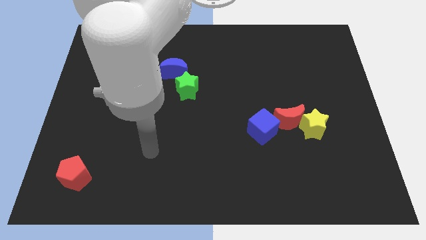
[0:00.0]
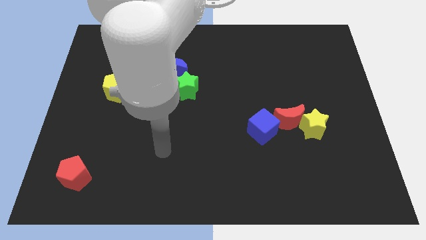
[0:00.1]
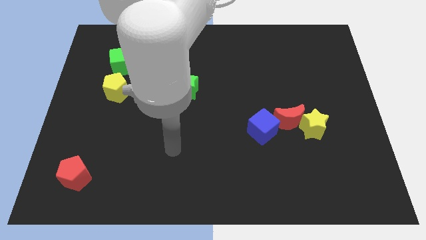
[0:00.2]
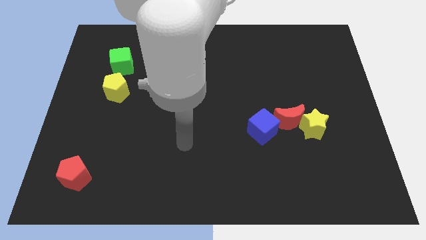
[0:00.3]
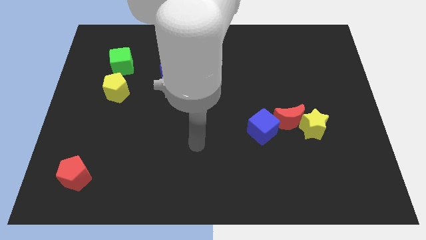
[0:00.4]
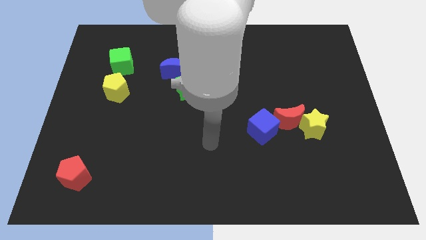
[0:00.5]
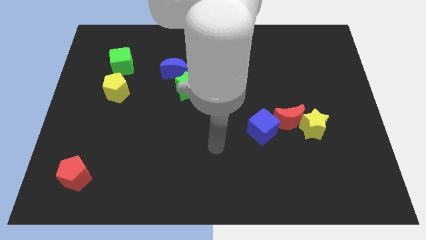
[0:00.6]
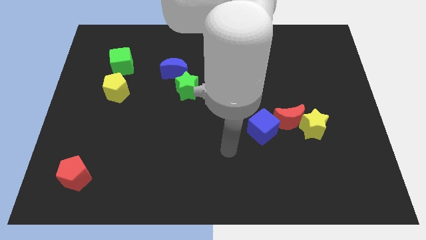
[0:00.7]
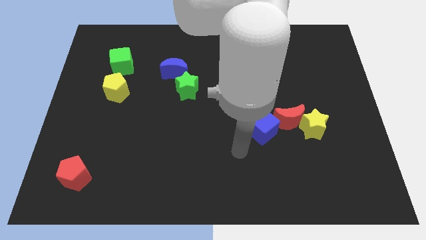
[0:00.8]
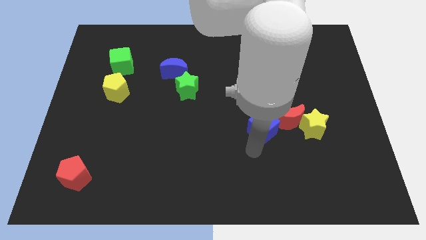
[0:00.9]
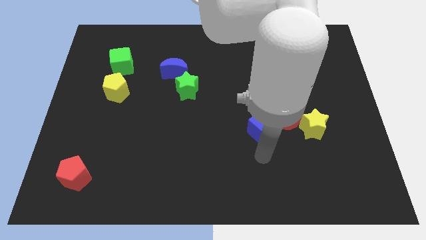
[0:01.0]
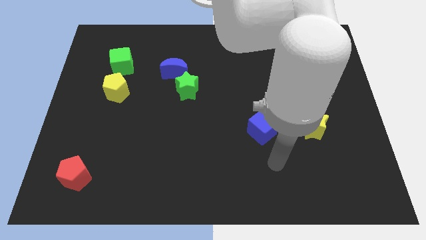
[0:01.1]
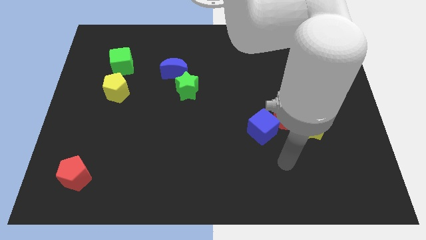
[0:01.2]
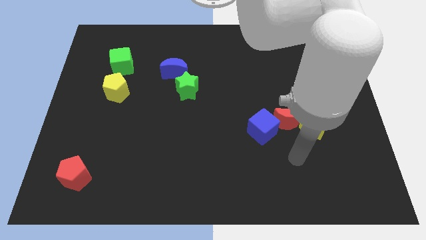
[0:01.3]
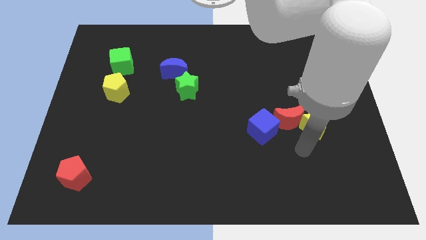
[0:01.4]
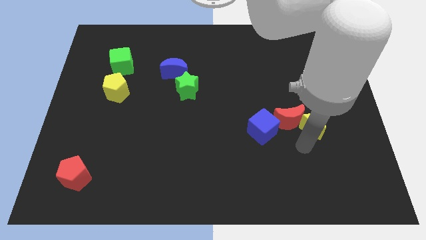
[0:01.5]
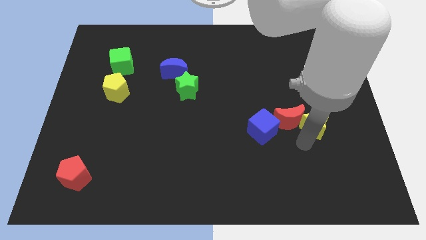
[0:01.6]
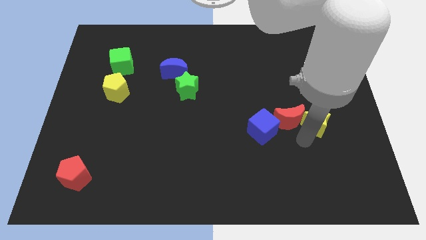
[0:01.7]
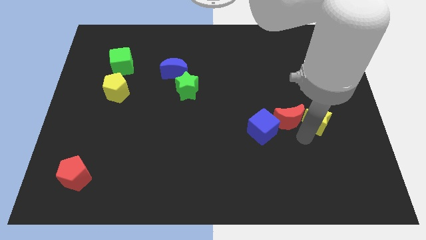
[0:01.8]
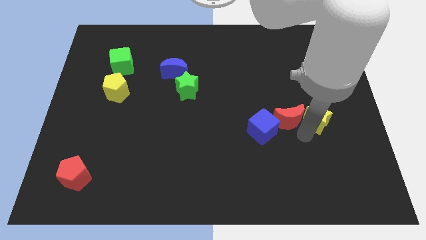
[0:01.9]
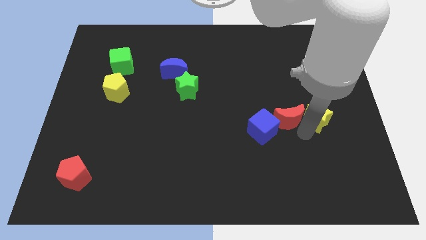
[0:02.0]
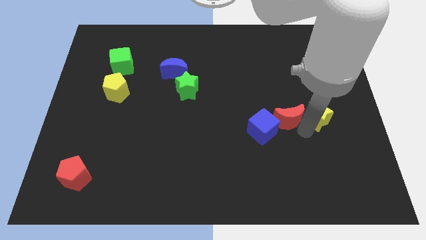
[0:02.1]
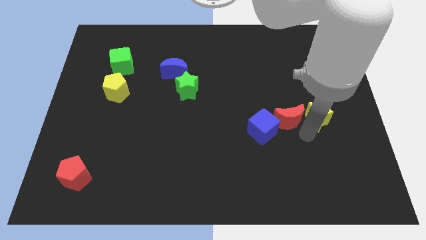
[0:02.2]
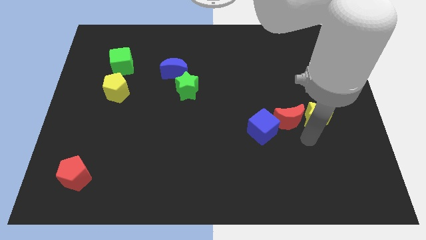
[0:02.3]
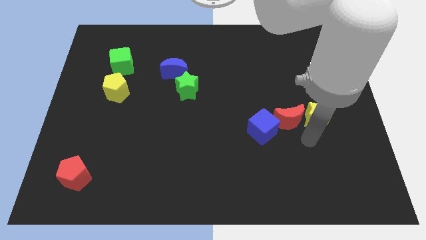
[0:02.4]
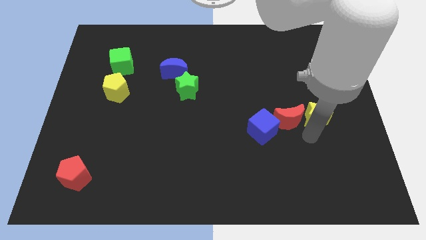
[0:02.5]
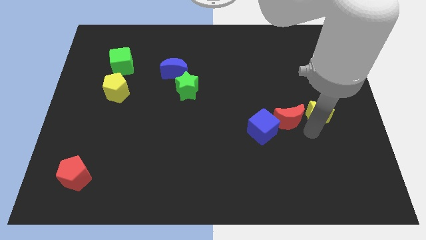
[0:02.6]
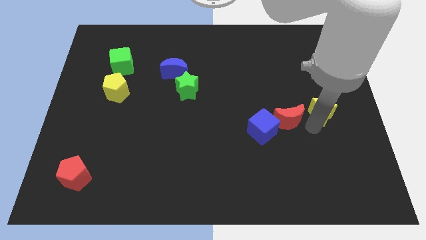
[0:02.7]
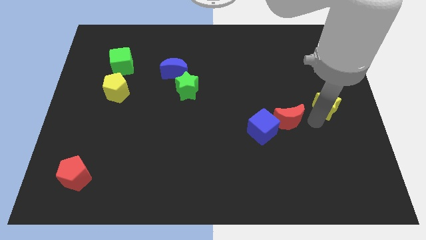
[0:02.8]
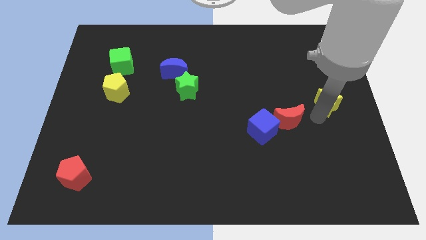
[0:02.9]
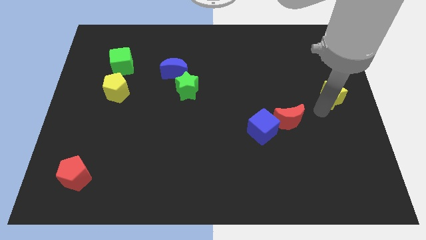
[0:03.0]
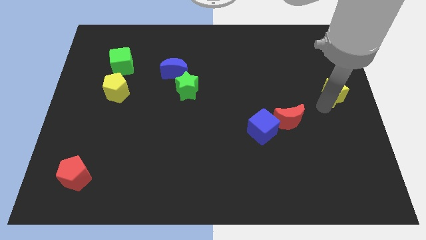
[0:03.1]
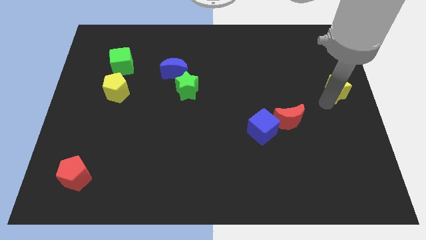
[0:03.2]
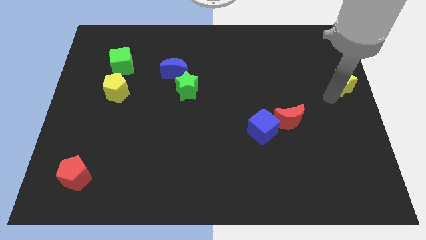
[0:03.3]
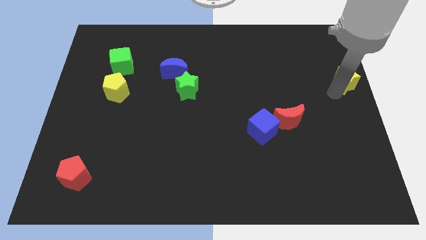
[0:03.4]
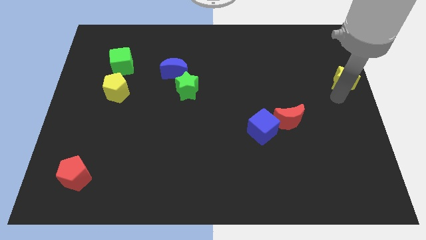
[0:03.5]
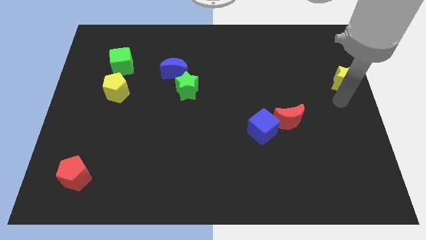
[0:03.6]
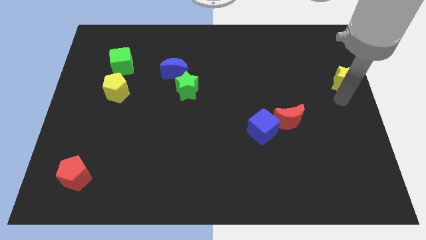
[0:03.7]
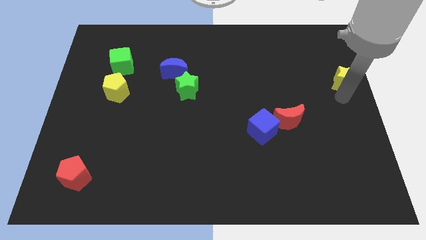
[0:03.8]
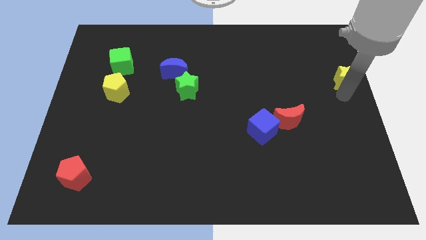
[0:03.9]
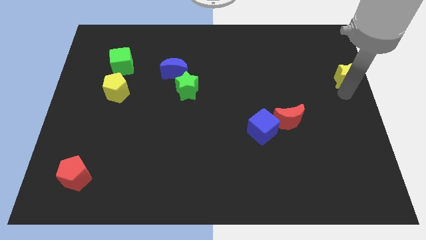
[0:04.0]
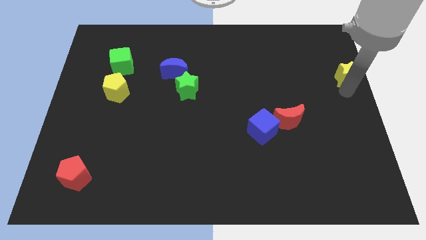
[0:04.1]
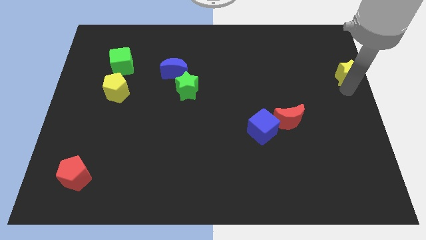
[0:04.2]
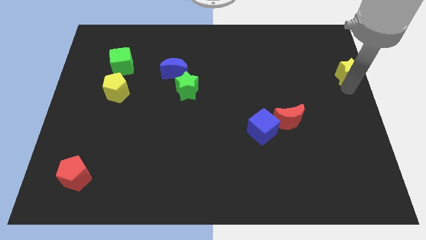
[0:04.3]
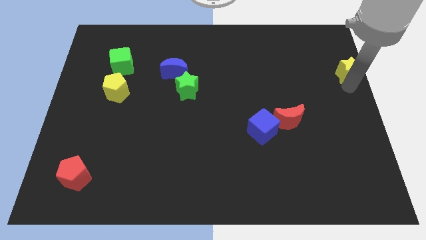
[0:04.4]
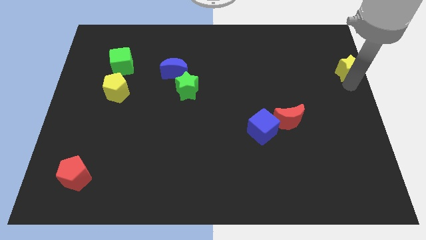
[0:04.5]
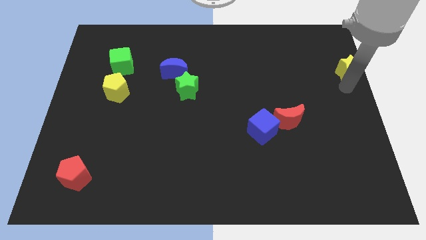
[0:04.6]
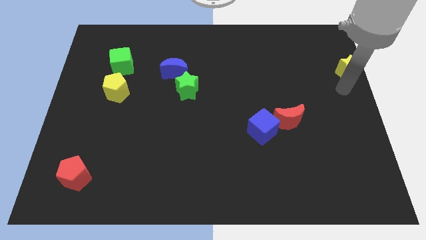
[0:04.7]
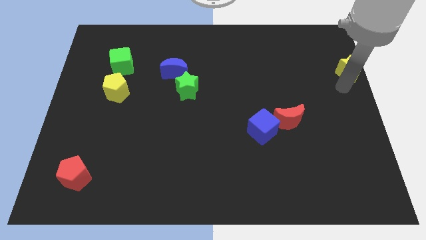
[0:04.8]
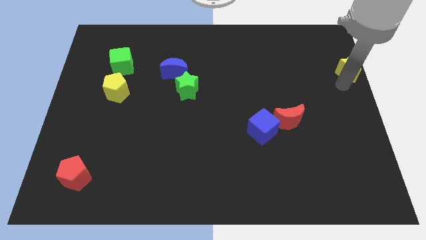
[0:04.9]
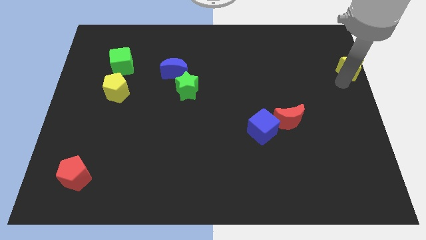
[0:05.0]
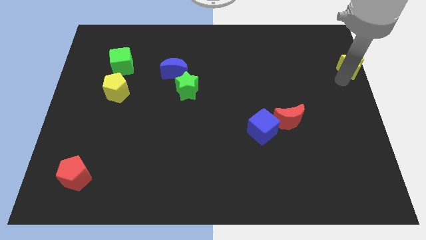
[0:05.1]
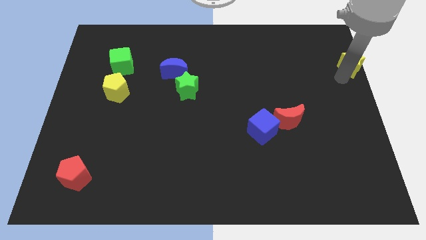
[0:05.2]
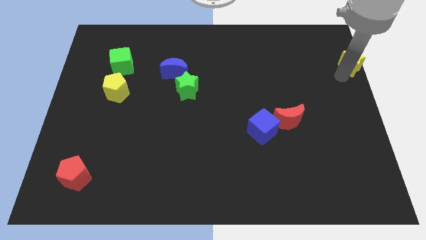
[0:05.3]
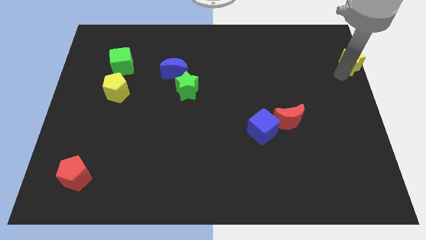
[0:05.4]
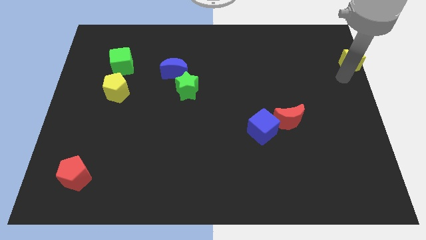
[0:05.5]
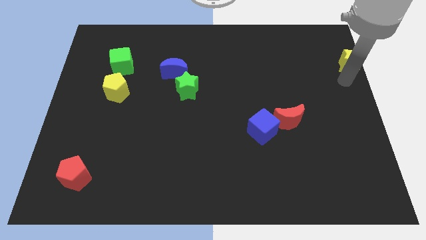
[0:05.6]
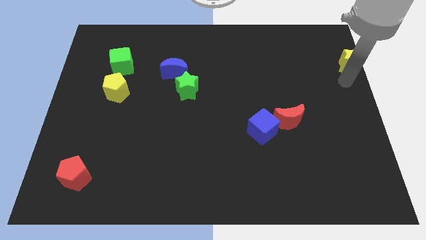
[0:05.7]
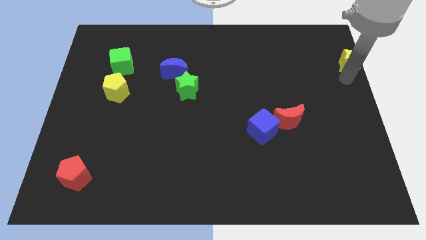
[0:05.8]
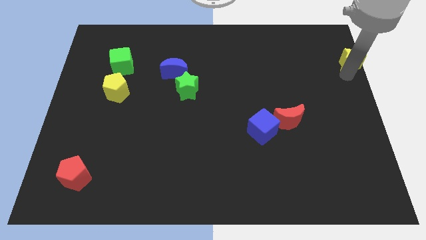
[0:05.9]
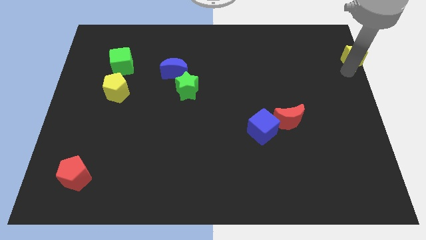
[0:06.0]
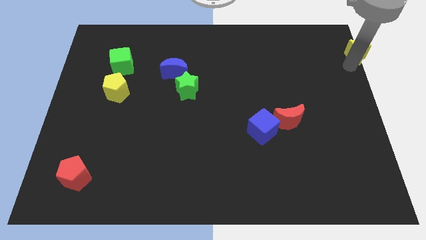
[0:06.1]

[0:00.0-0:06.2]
slide the yellow star to the top right corner
